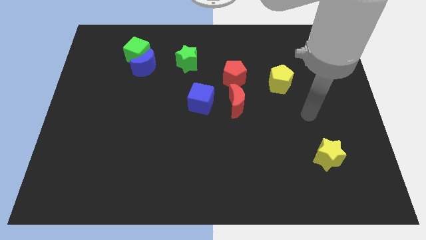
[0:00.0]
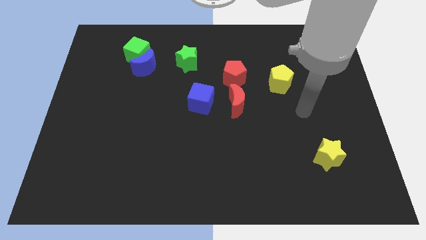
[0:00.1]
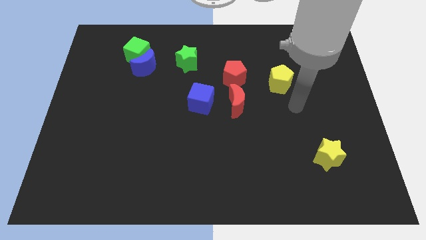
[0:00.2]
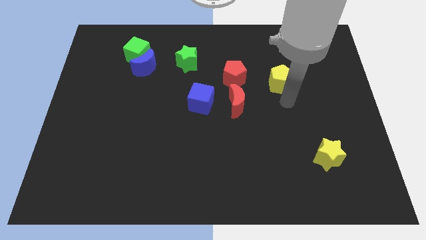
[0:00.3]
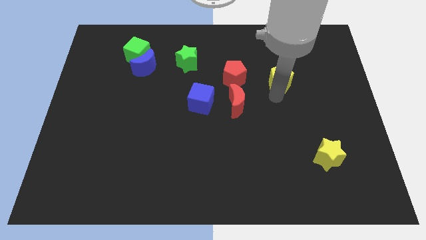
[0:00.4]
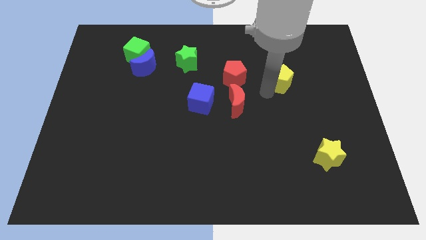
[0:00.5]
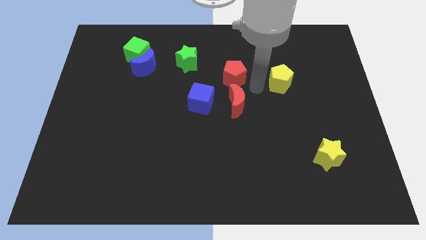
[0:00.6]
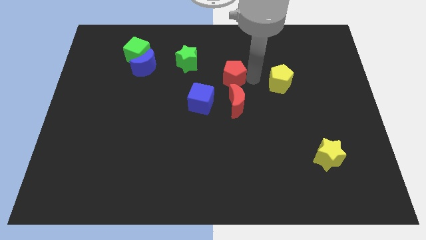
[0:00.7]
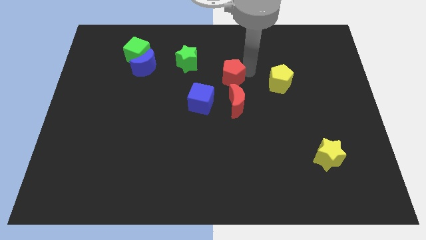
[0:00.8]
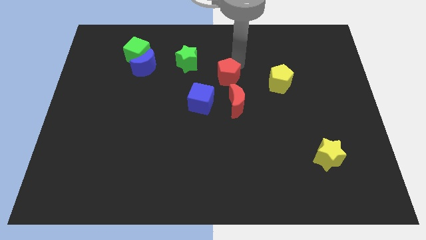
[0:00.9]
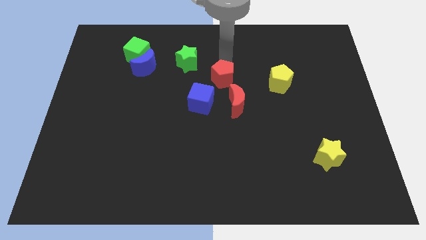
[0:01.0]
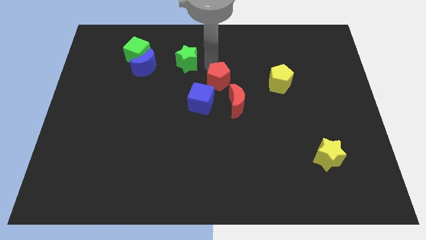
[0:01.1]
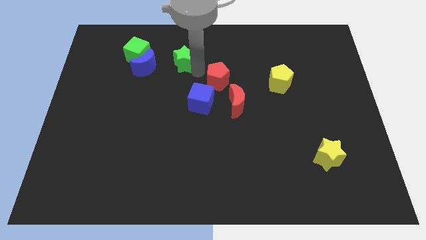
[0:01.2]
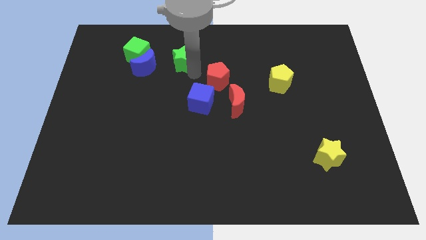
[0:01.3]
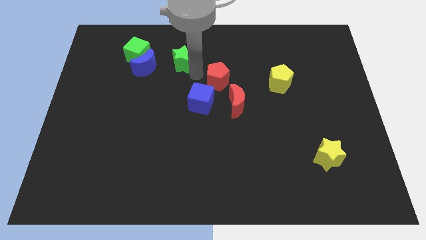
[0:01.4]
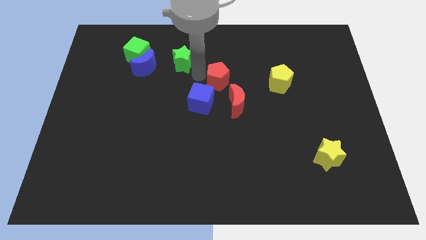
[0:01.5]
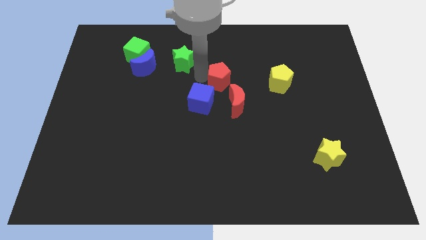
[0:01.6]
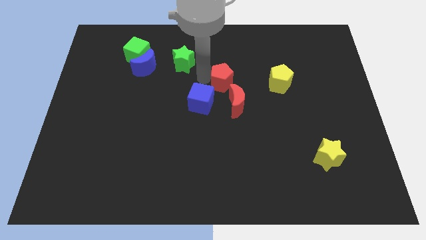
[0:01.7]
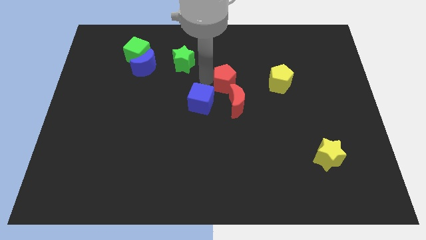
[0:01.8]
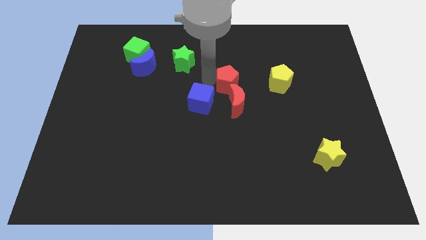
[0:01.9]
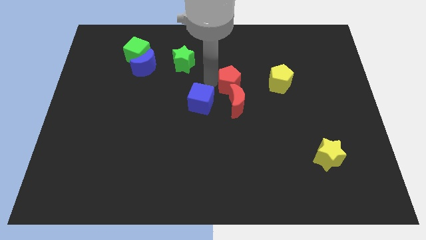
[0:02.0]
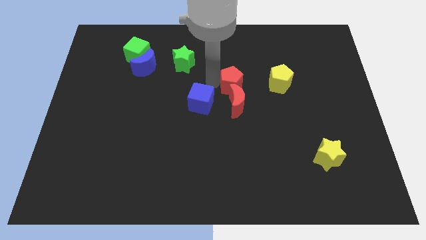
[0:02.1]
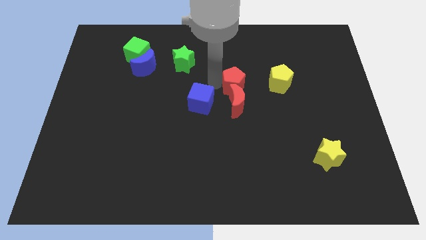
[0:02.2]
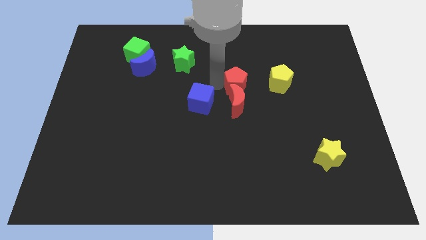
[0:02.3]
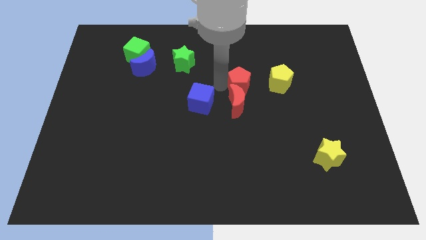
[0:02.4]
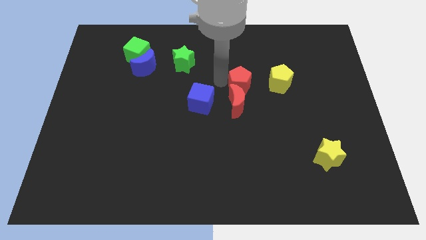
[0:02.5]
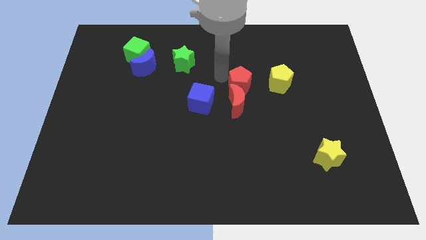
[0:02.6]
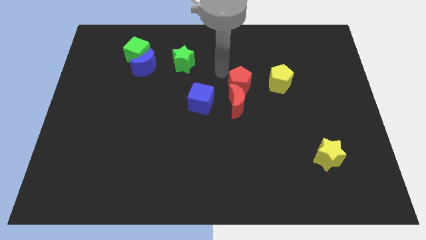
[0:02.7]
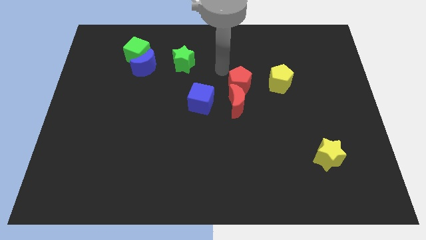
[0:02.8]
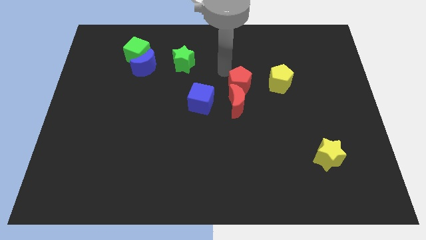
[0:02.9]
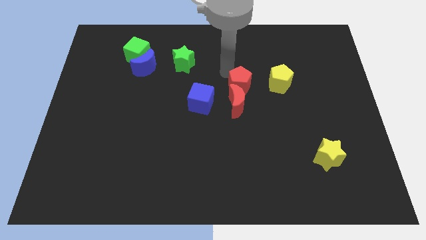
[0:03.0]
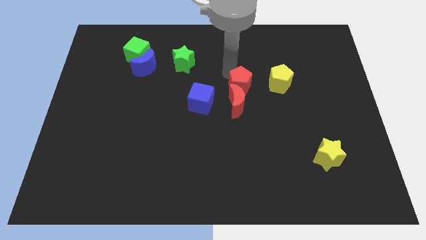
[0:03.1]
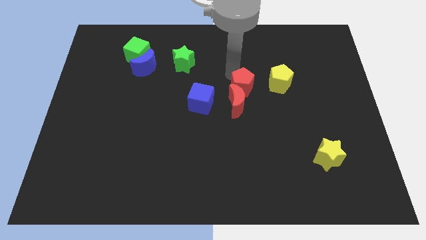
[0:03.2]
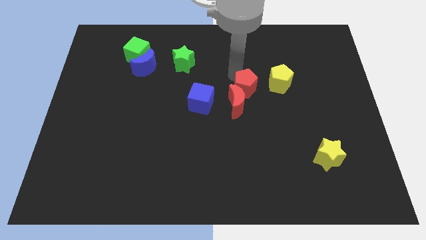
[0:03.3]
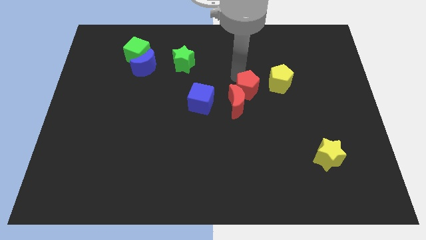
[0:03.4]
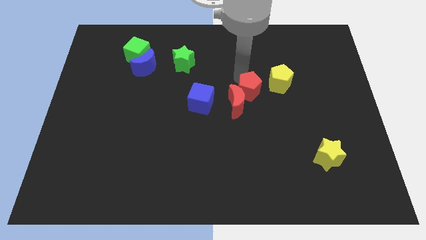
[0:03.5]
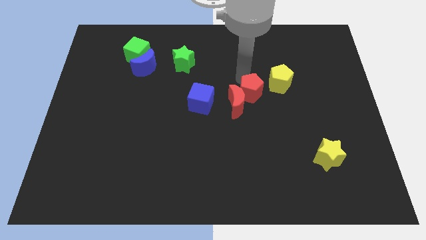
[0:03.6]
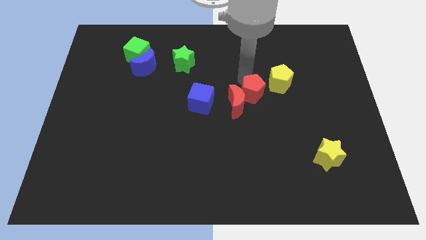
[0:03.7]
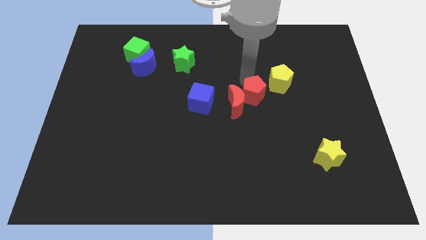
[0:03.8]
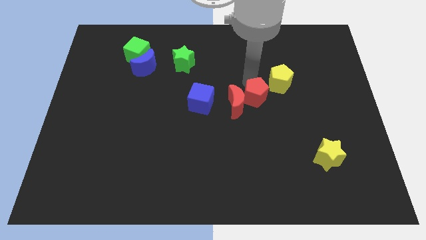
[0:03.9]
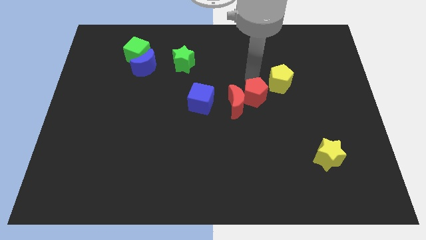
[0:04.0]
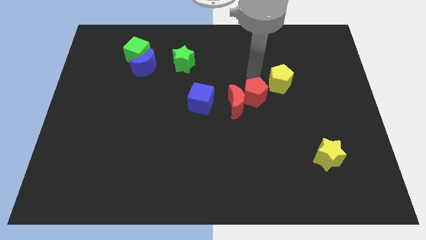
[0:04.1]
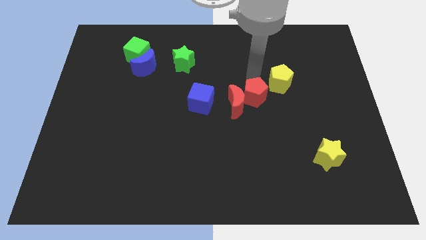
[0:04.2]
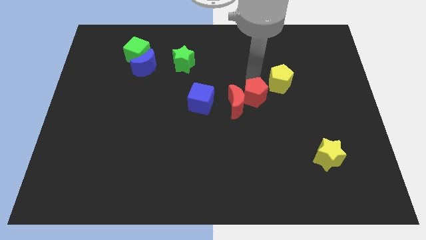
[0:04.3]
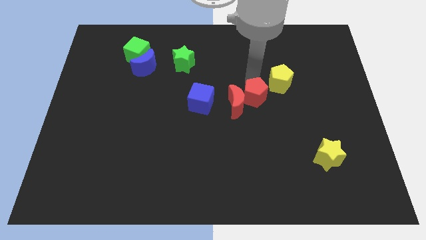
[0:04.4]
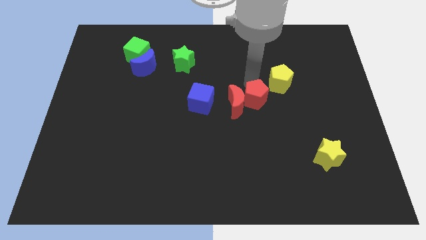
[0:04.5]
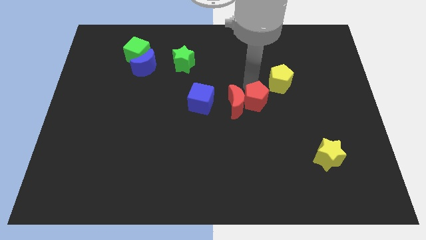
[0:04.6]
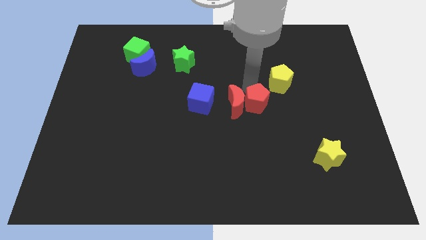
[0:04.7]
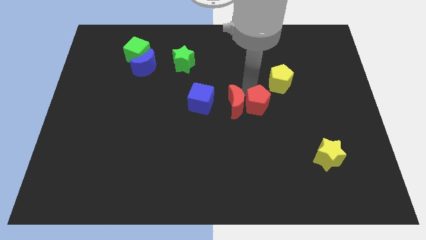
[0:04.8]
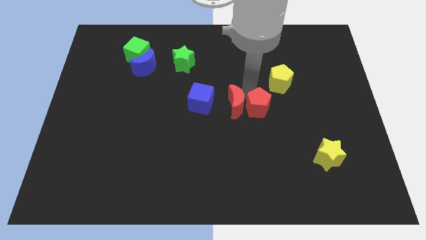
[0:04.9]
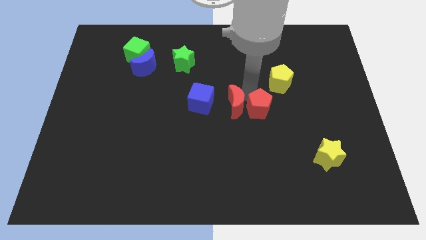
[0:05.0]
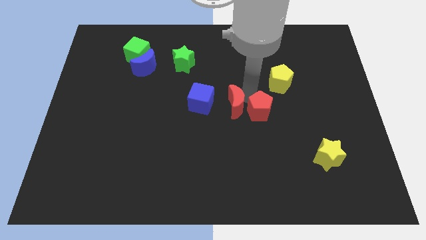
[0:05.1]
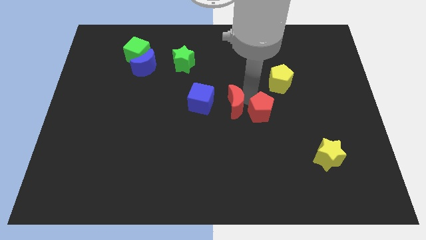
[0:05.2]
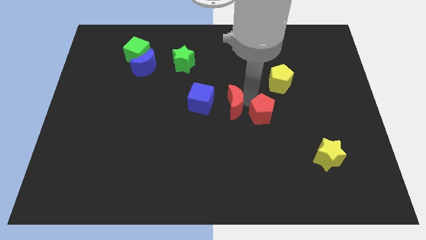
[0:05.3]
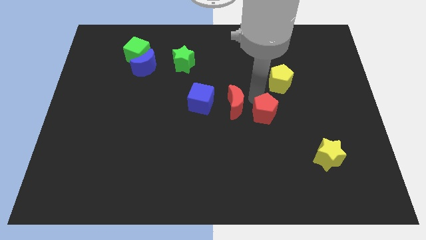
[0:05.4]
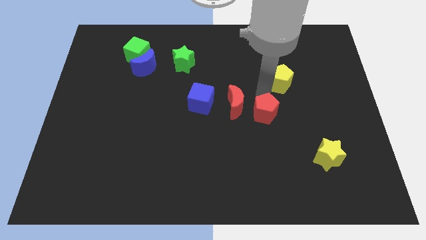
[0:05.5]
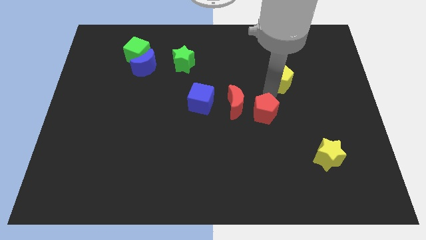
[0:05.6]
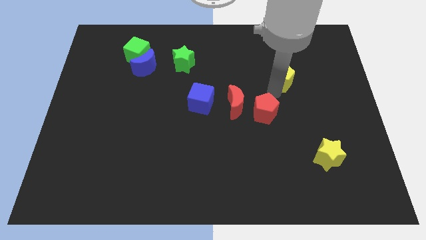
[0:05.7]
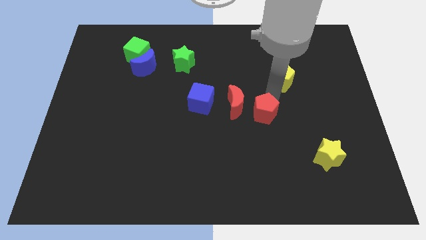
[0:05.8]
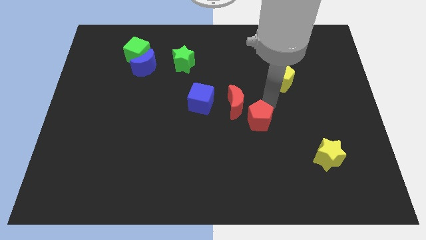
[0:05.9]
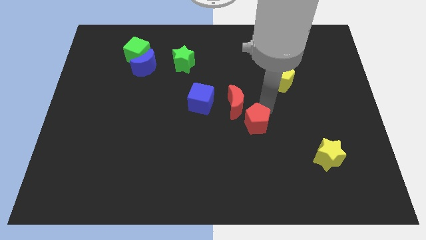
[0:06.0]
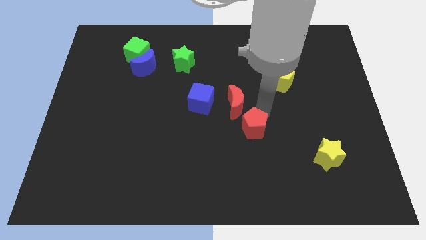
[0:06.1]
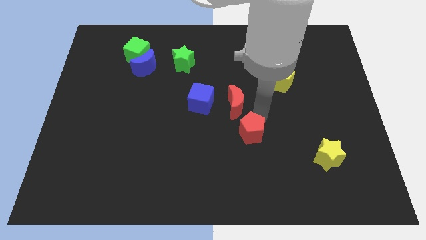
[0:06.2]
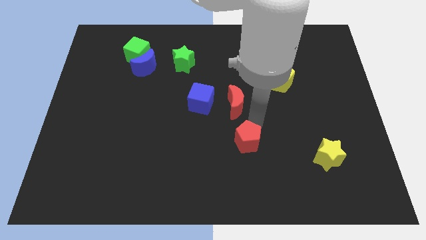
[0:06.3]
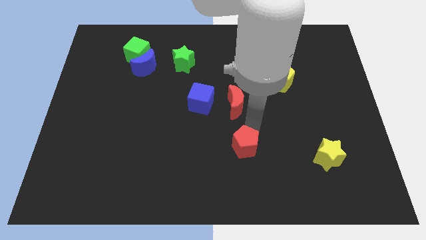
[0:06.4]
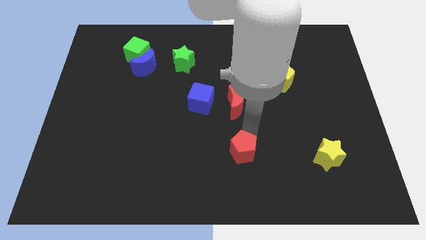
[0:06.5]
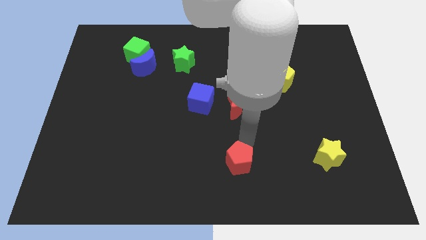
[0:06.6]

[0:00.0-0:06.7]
push the red pentagon to the bottom side
